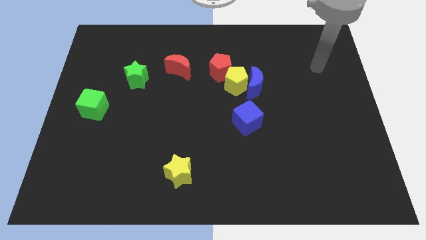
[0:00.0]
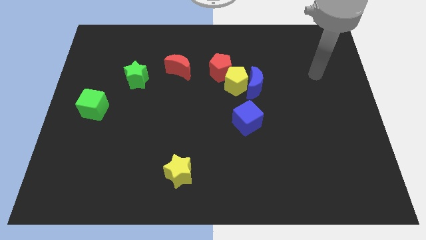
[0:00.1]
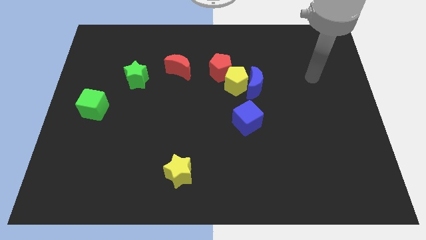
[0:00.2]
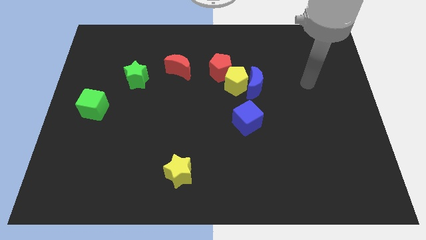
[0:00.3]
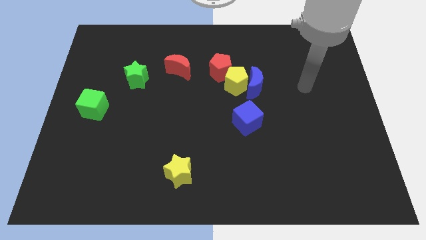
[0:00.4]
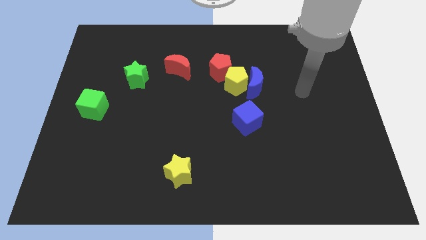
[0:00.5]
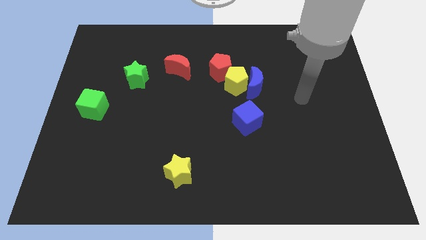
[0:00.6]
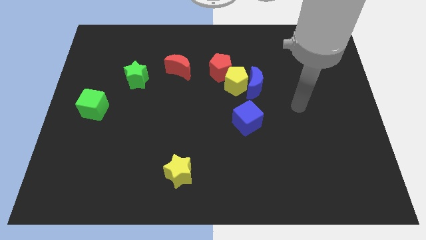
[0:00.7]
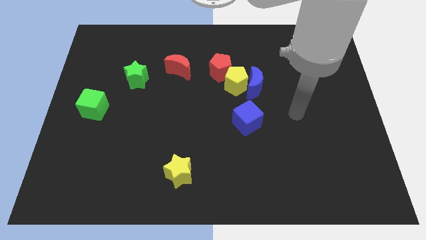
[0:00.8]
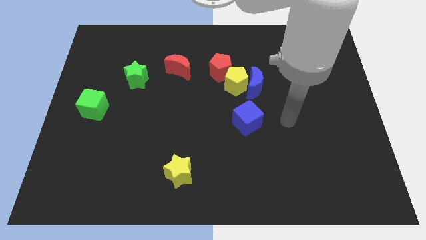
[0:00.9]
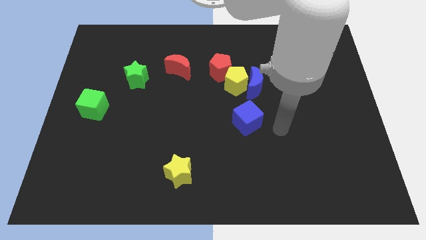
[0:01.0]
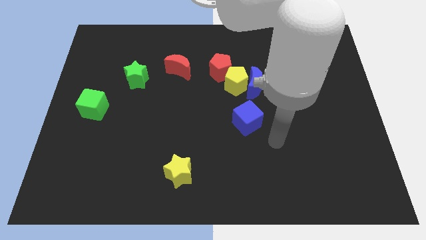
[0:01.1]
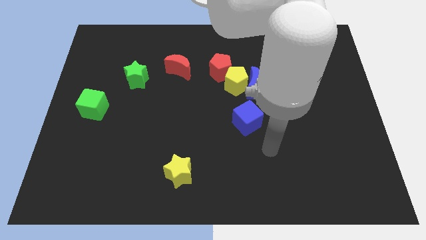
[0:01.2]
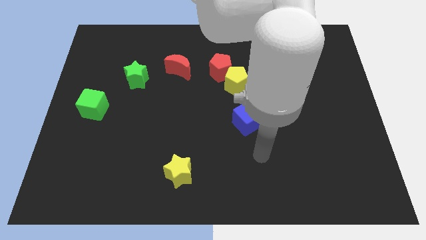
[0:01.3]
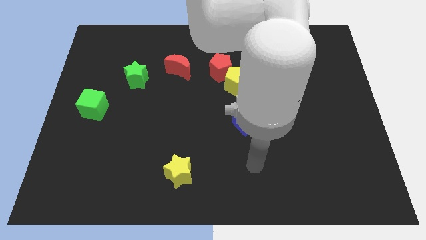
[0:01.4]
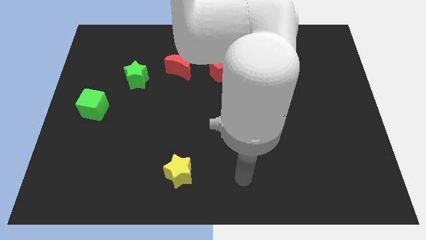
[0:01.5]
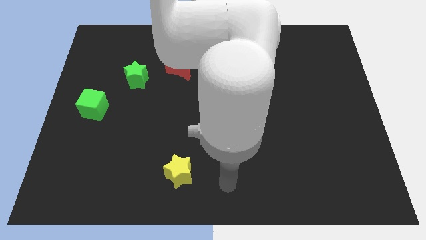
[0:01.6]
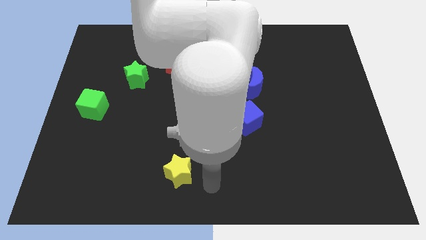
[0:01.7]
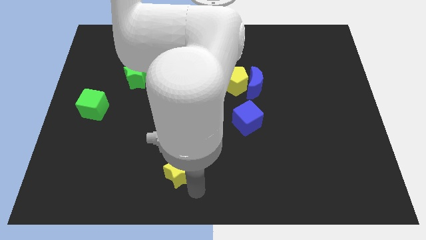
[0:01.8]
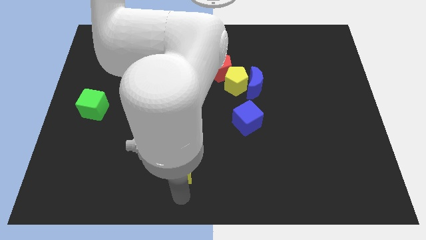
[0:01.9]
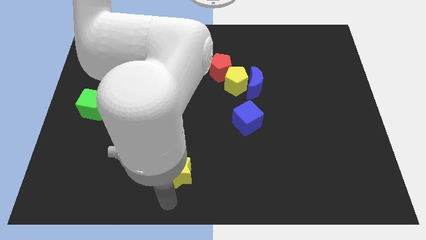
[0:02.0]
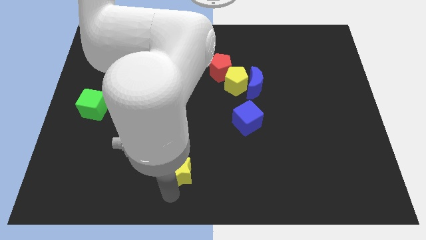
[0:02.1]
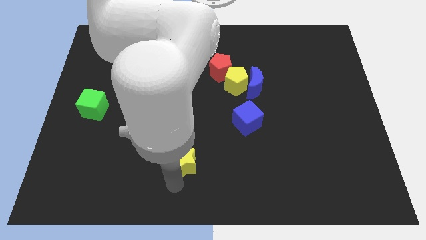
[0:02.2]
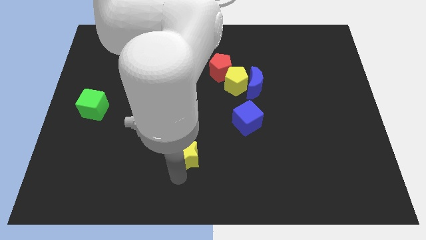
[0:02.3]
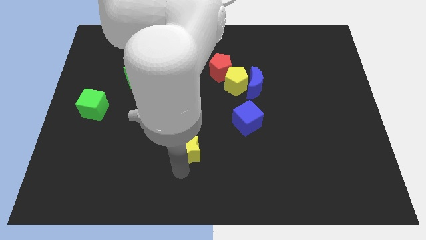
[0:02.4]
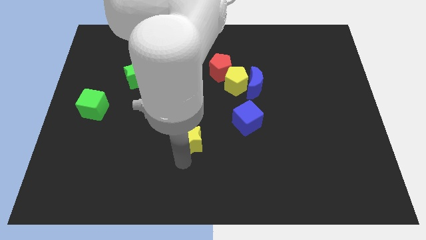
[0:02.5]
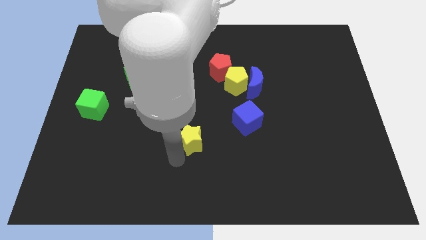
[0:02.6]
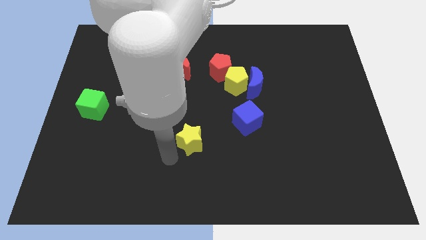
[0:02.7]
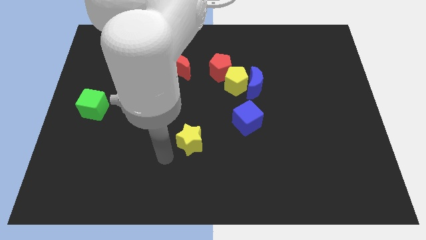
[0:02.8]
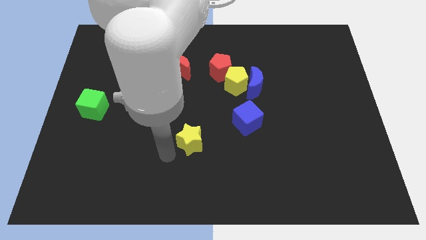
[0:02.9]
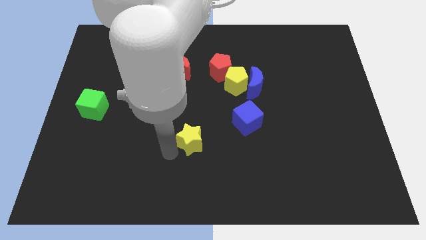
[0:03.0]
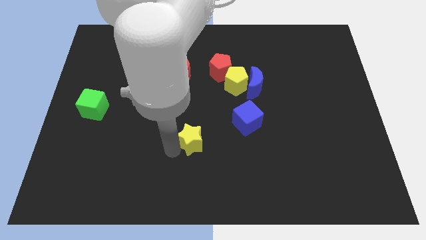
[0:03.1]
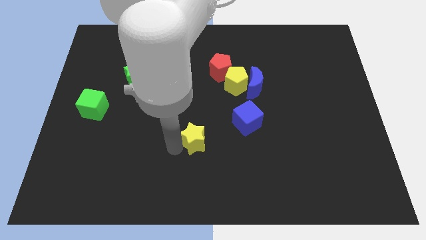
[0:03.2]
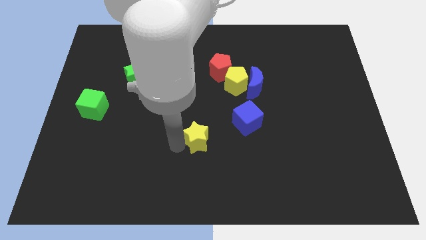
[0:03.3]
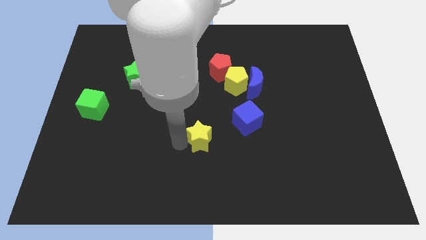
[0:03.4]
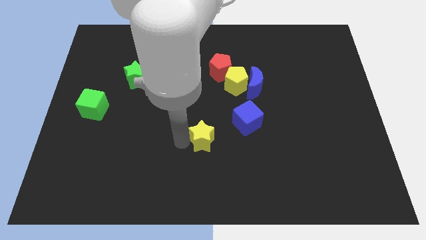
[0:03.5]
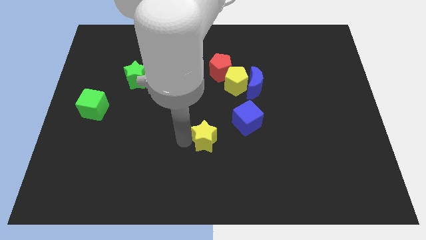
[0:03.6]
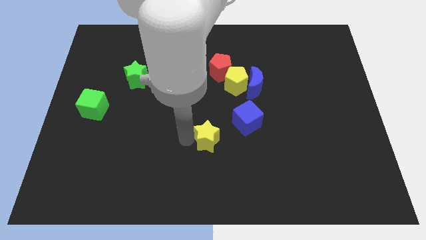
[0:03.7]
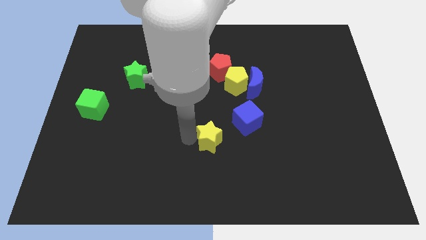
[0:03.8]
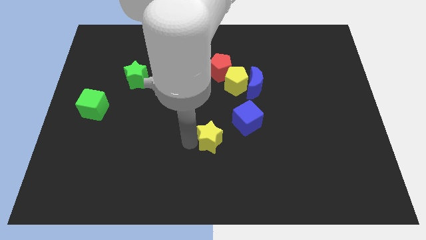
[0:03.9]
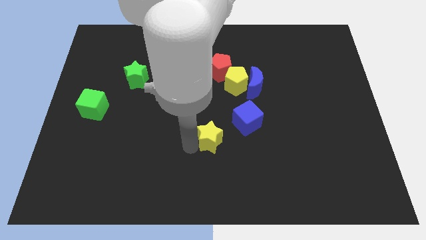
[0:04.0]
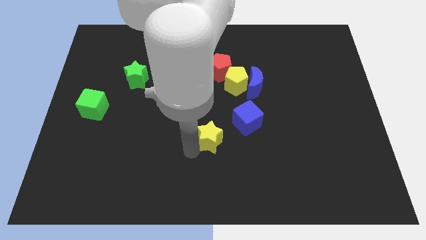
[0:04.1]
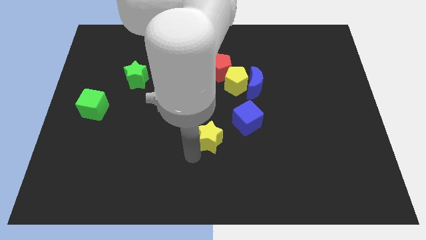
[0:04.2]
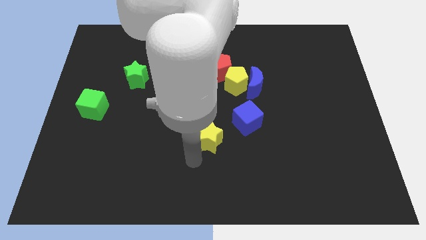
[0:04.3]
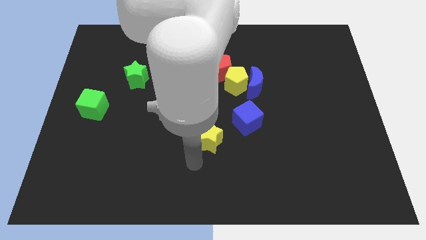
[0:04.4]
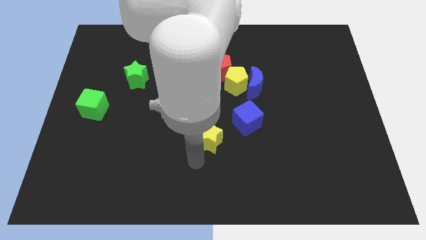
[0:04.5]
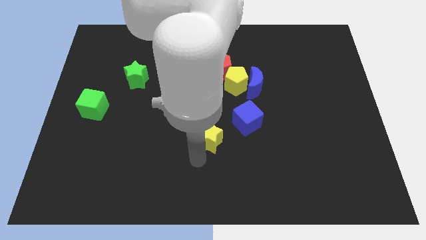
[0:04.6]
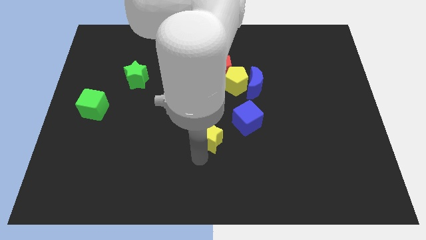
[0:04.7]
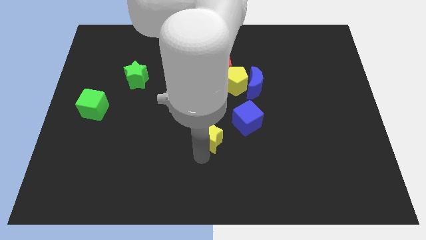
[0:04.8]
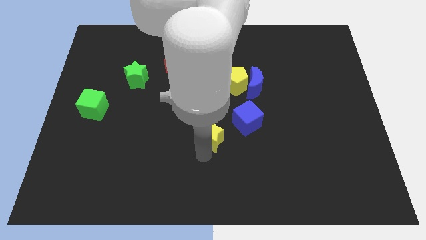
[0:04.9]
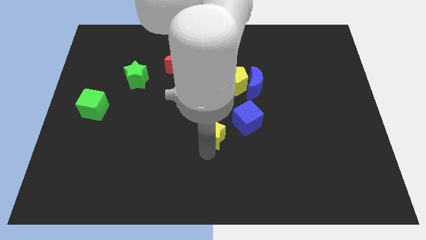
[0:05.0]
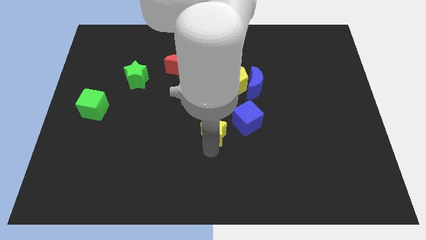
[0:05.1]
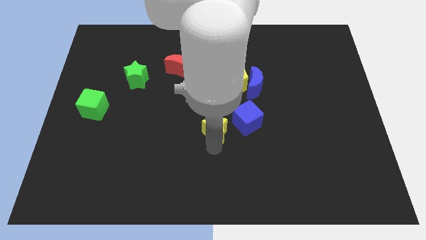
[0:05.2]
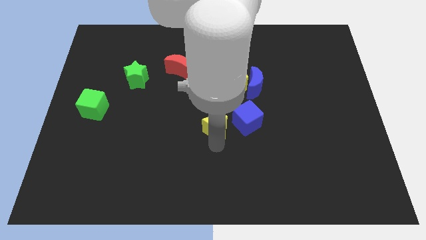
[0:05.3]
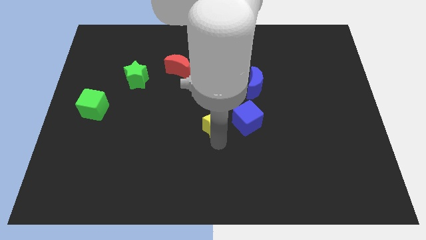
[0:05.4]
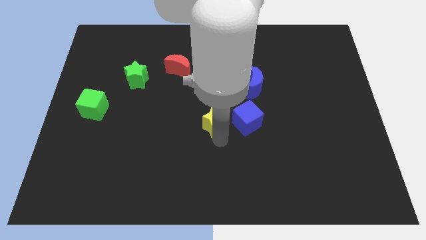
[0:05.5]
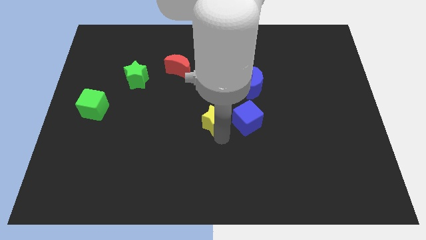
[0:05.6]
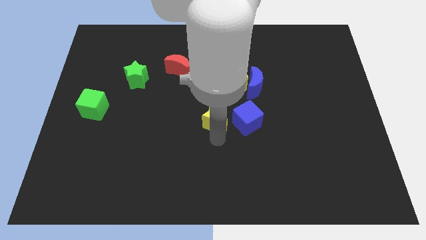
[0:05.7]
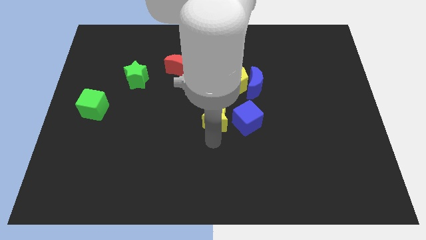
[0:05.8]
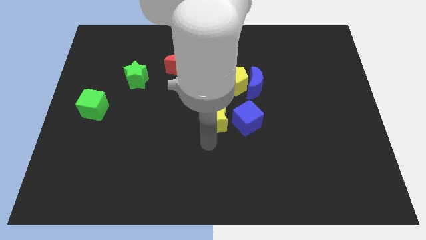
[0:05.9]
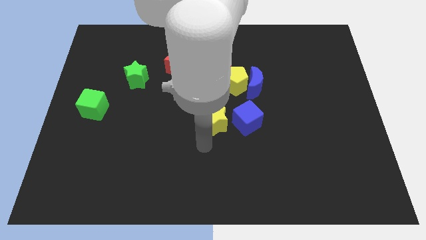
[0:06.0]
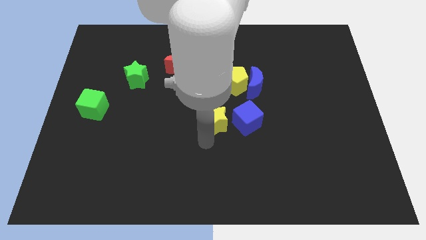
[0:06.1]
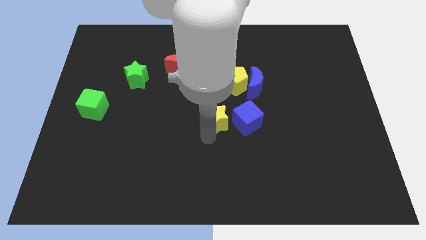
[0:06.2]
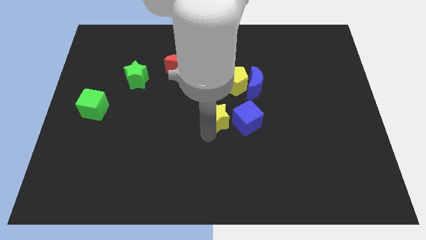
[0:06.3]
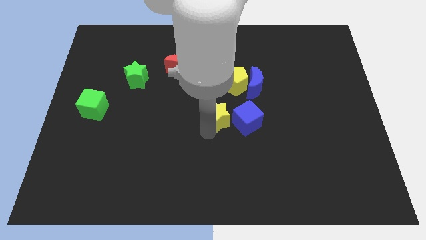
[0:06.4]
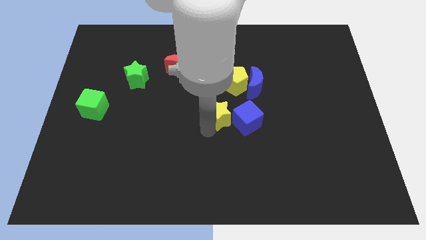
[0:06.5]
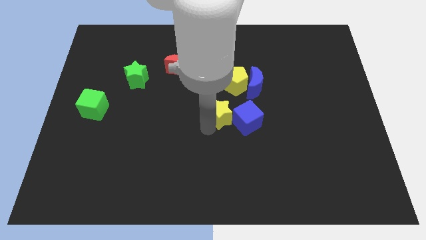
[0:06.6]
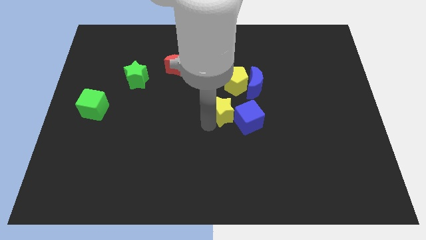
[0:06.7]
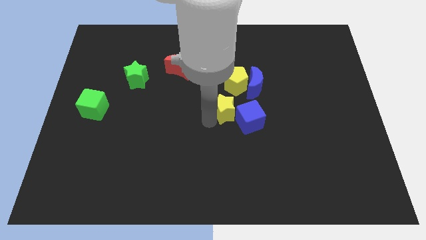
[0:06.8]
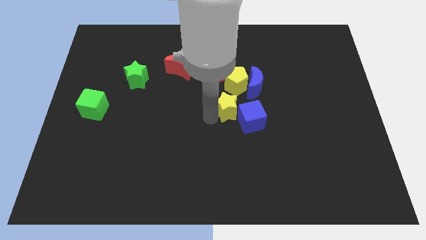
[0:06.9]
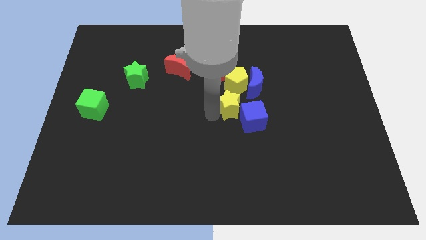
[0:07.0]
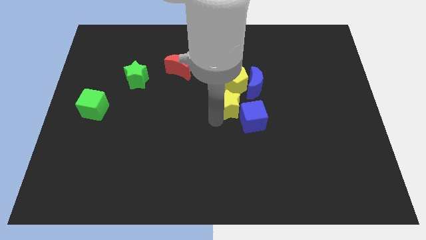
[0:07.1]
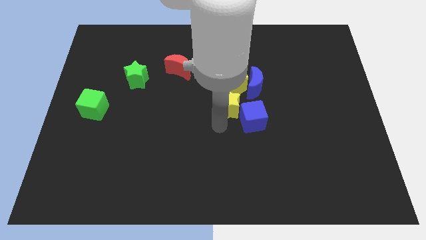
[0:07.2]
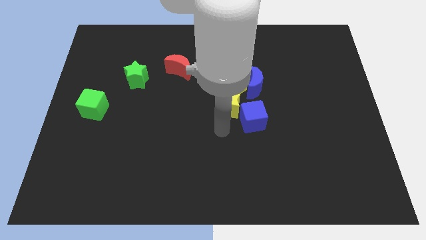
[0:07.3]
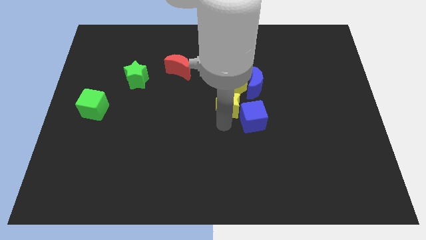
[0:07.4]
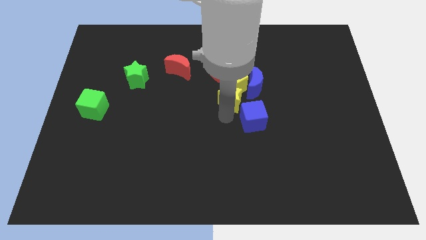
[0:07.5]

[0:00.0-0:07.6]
put the yellow star towards the yellow pentagon
